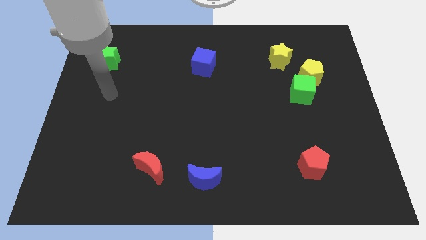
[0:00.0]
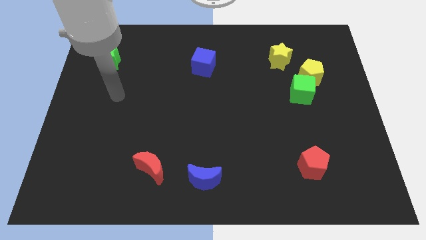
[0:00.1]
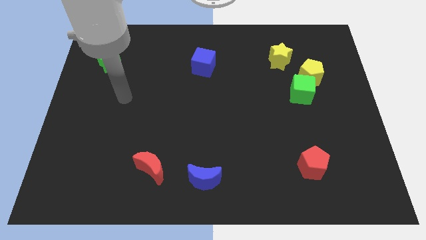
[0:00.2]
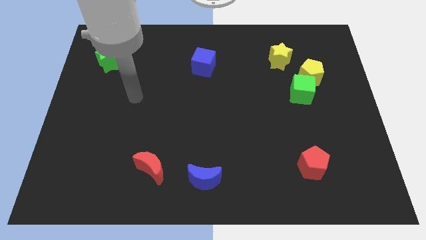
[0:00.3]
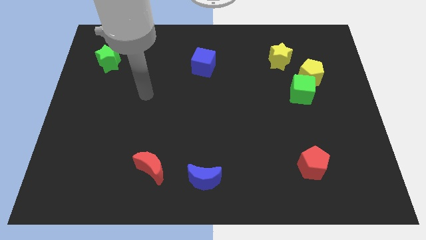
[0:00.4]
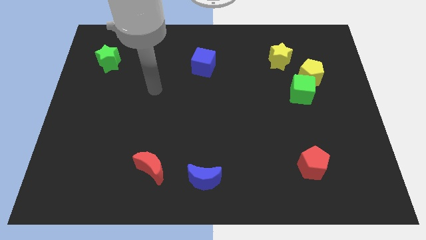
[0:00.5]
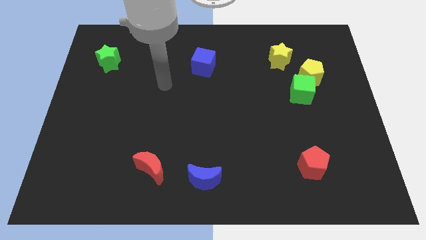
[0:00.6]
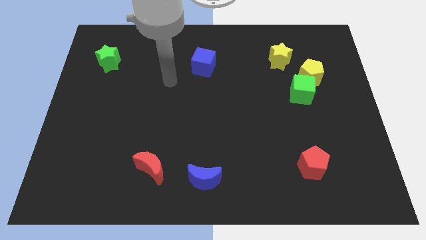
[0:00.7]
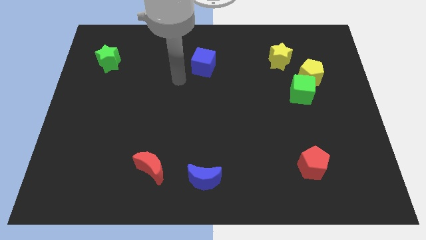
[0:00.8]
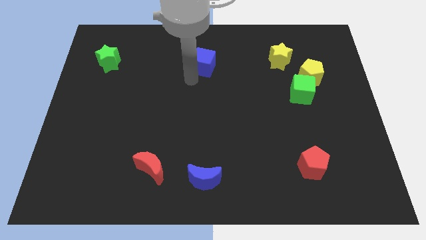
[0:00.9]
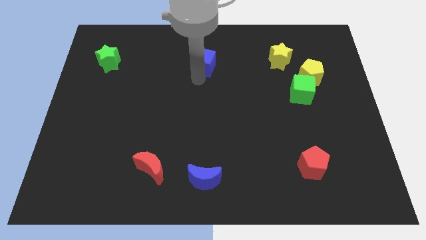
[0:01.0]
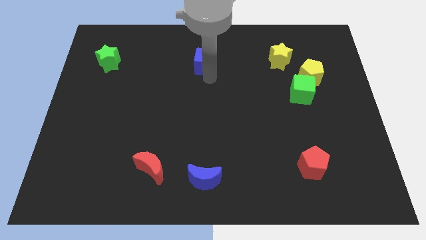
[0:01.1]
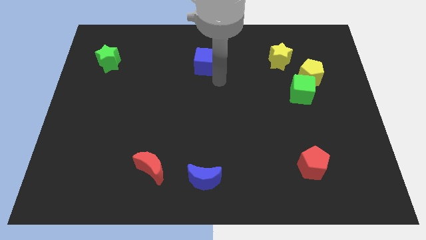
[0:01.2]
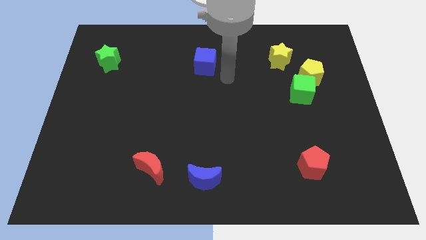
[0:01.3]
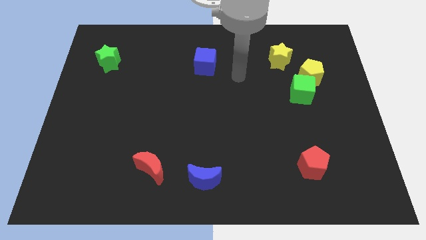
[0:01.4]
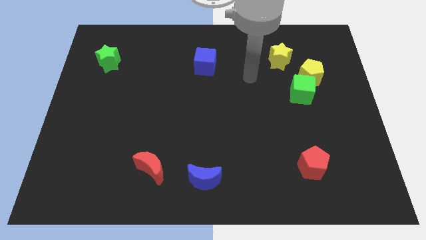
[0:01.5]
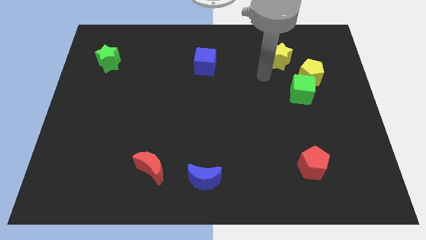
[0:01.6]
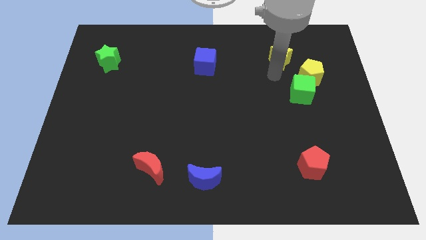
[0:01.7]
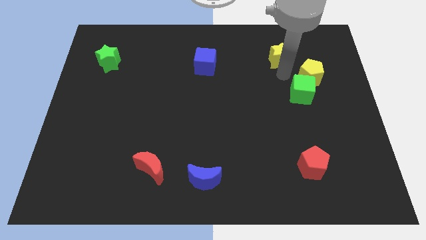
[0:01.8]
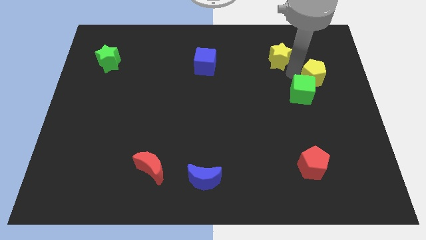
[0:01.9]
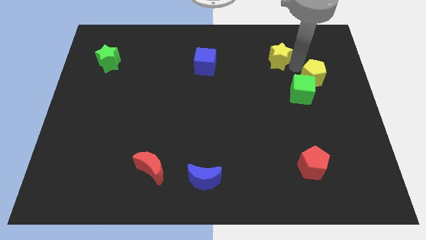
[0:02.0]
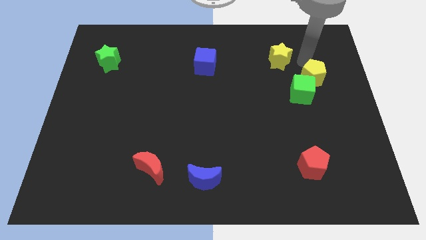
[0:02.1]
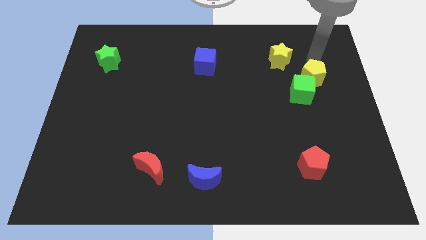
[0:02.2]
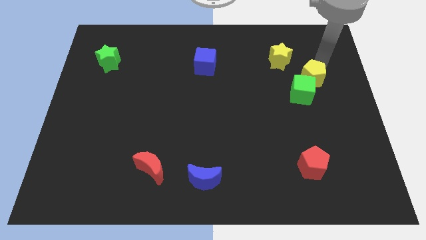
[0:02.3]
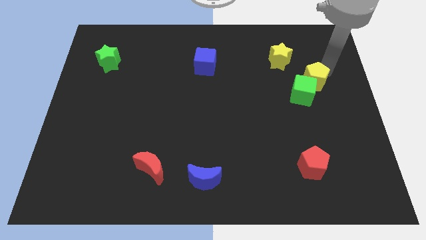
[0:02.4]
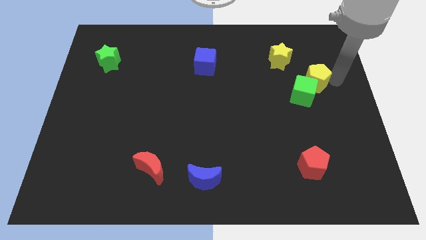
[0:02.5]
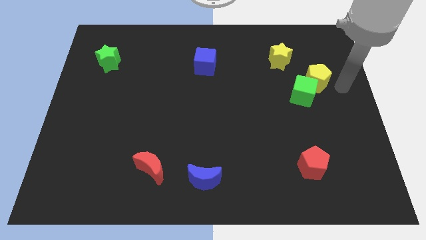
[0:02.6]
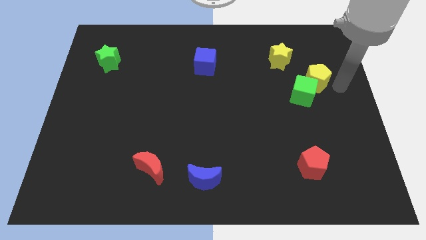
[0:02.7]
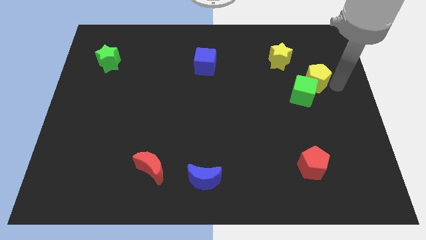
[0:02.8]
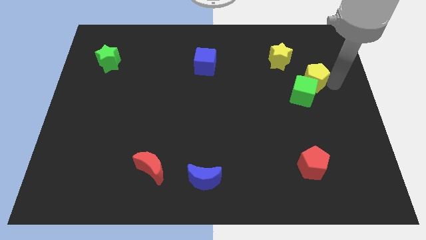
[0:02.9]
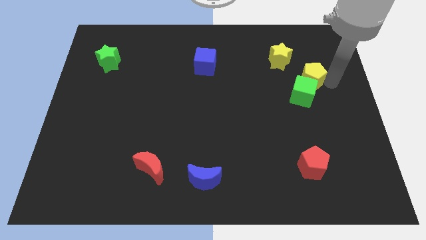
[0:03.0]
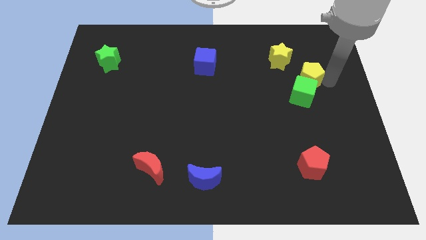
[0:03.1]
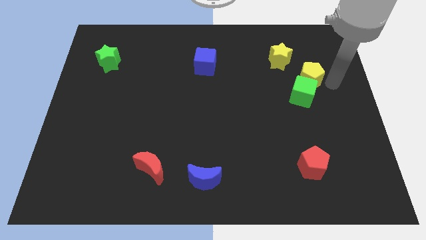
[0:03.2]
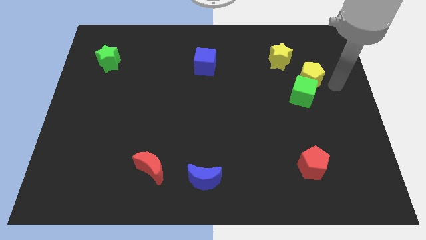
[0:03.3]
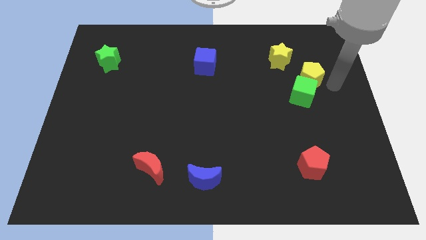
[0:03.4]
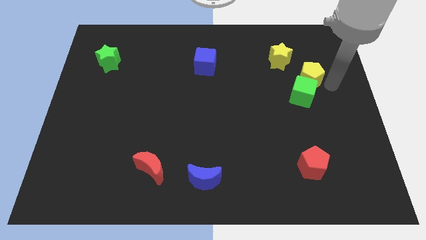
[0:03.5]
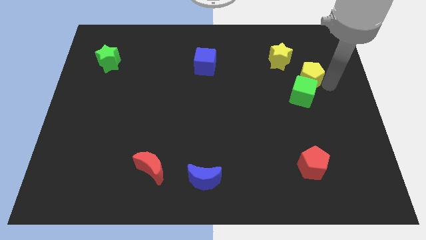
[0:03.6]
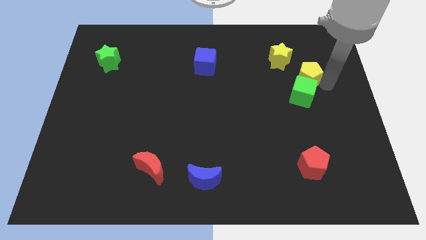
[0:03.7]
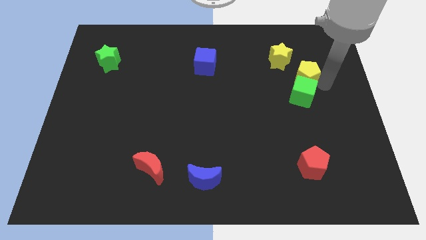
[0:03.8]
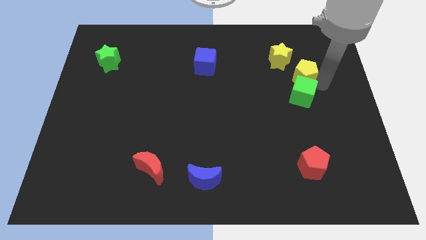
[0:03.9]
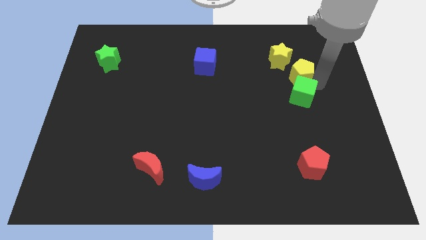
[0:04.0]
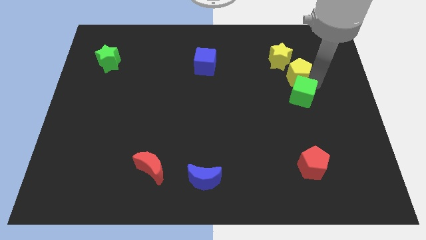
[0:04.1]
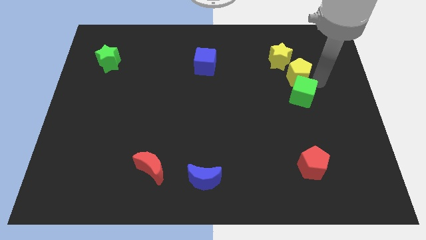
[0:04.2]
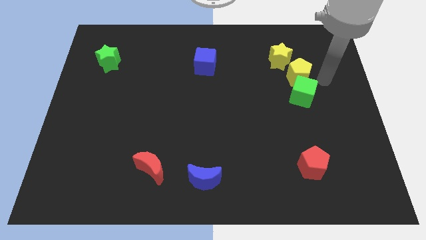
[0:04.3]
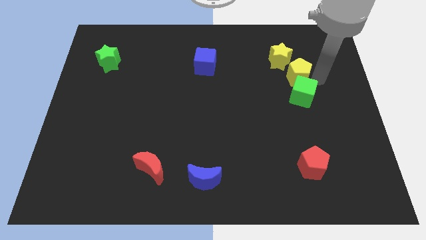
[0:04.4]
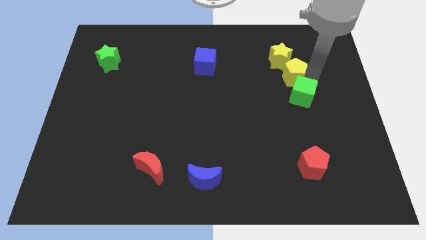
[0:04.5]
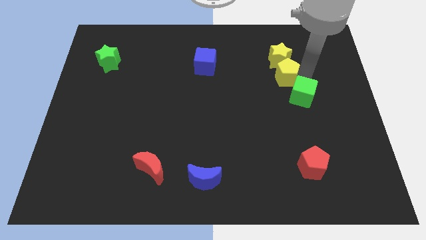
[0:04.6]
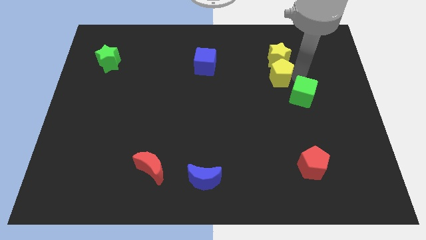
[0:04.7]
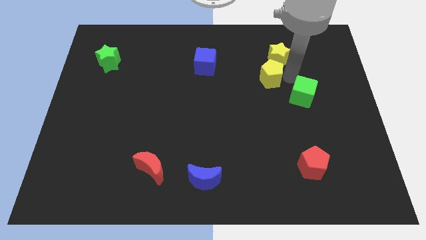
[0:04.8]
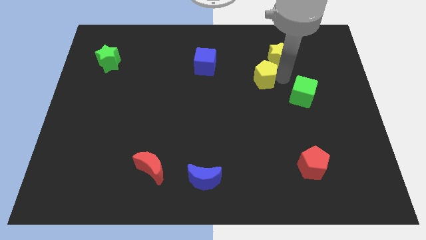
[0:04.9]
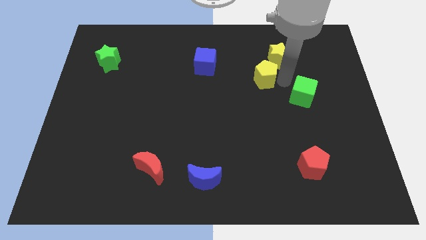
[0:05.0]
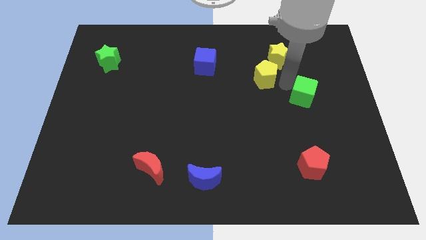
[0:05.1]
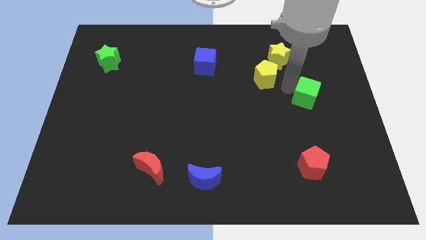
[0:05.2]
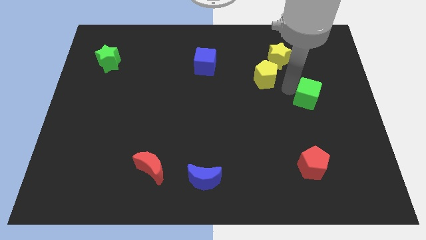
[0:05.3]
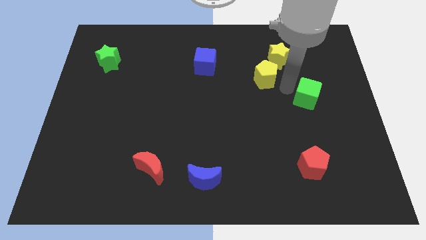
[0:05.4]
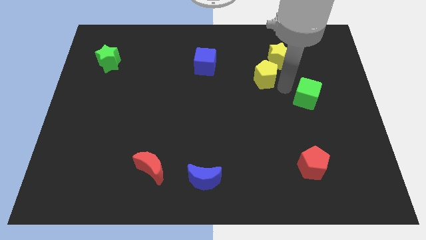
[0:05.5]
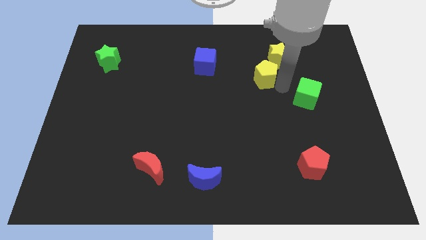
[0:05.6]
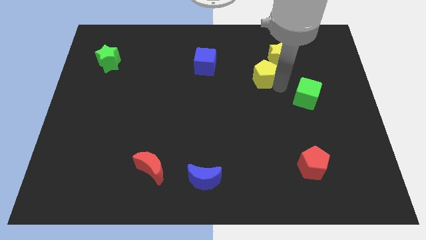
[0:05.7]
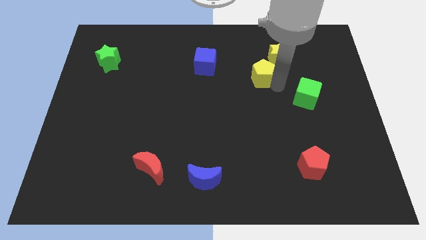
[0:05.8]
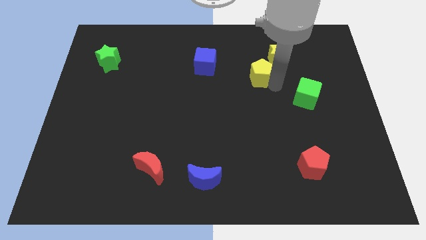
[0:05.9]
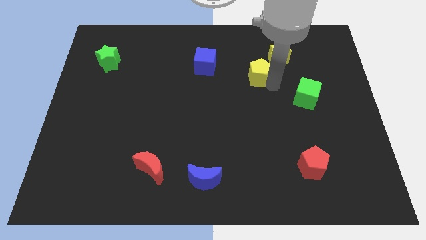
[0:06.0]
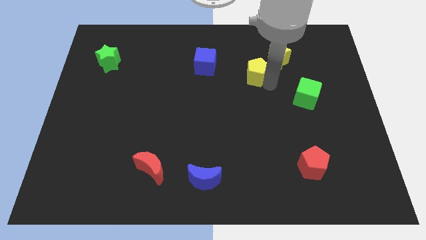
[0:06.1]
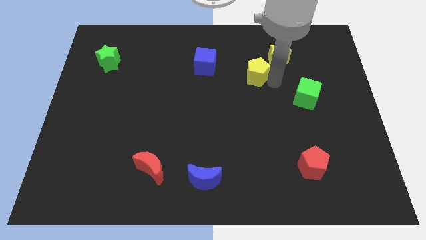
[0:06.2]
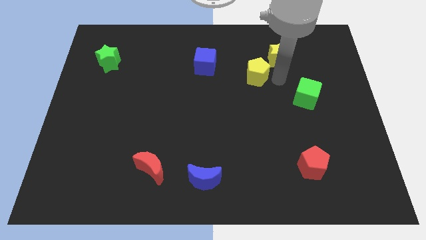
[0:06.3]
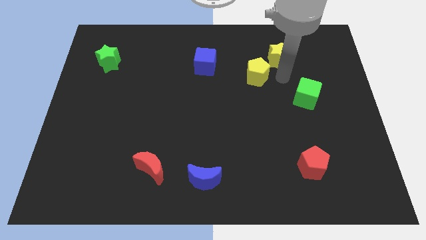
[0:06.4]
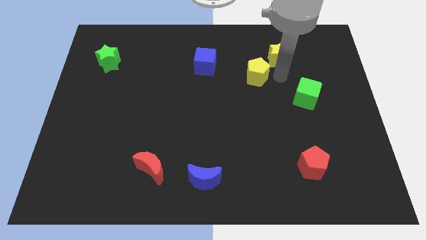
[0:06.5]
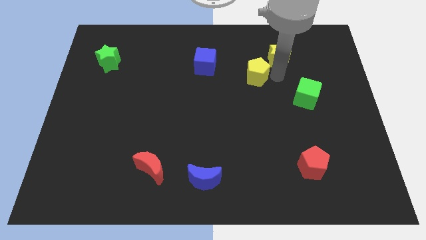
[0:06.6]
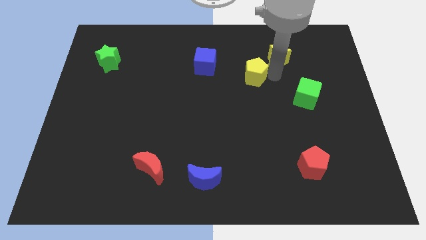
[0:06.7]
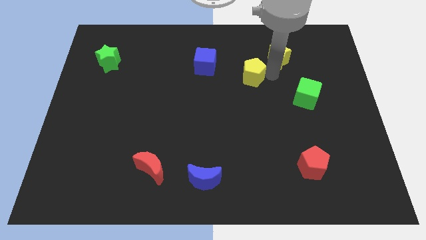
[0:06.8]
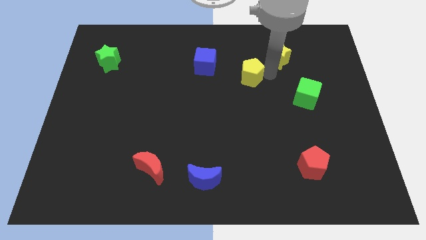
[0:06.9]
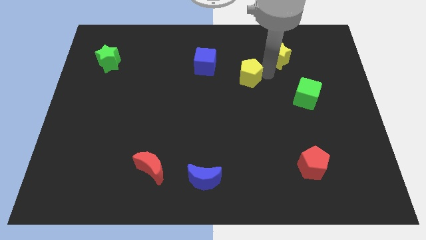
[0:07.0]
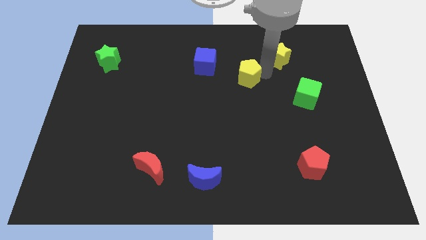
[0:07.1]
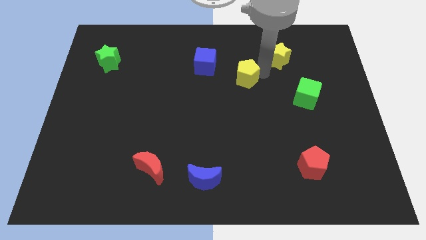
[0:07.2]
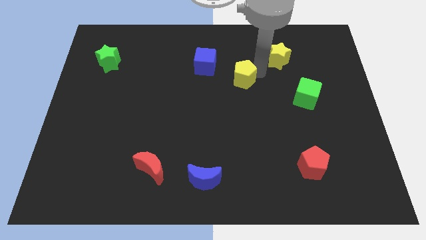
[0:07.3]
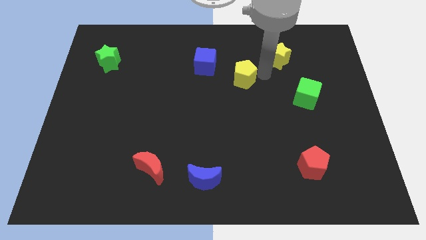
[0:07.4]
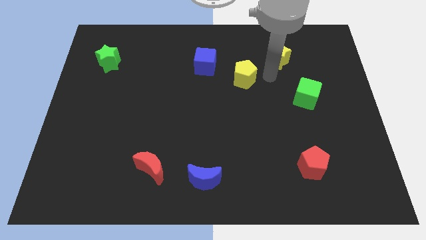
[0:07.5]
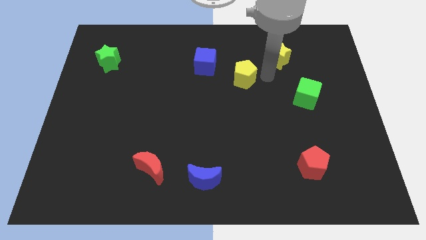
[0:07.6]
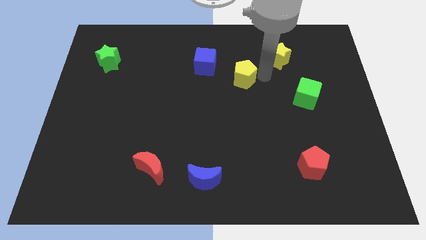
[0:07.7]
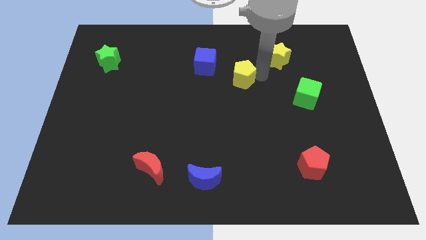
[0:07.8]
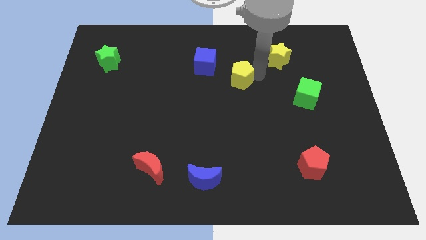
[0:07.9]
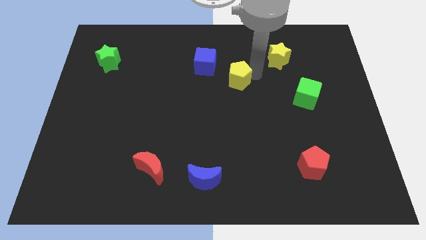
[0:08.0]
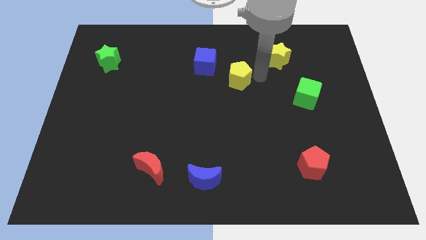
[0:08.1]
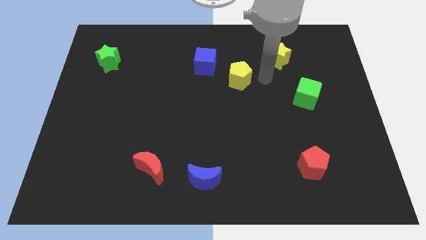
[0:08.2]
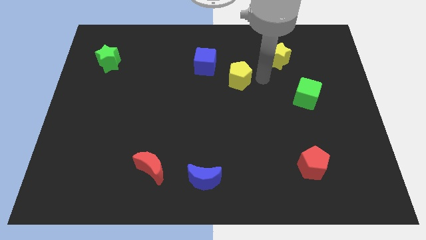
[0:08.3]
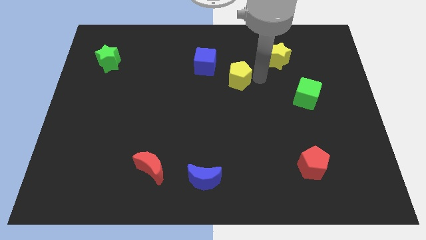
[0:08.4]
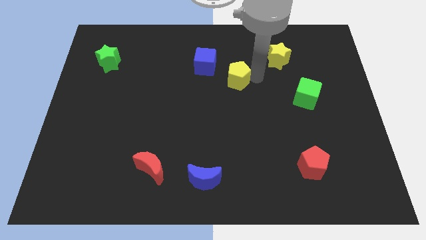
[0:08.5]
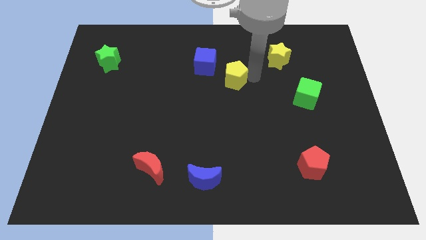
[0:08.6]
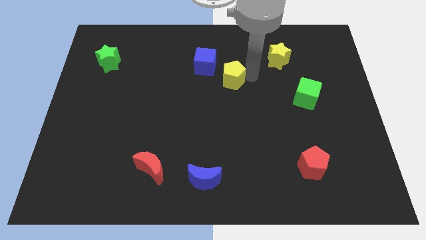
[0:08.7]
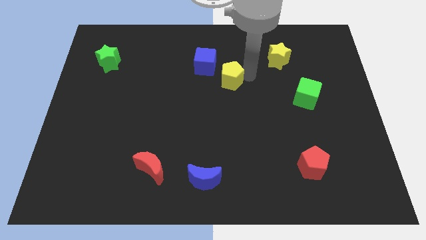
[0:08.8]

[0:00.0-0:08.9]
push the yellow pentagon left
